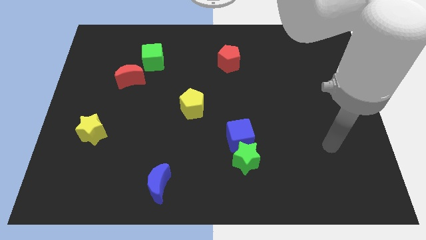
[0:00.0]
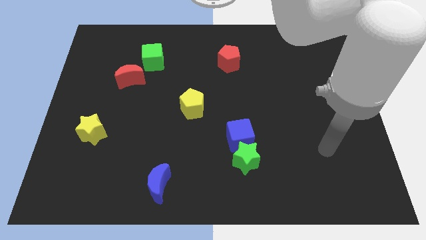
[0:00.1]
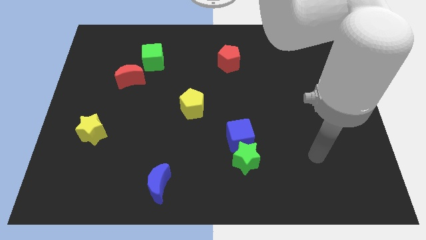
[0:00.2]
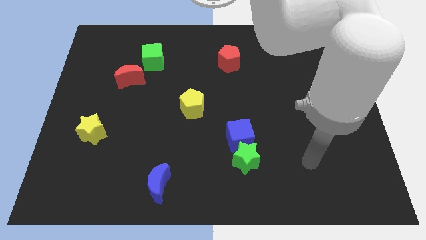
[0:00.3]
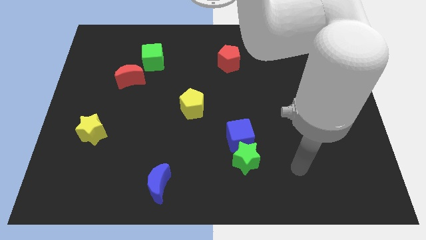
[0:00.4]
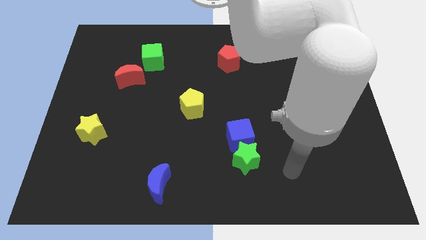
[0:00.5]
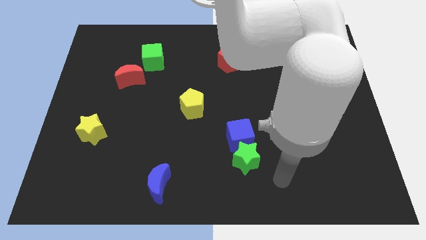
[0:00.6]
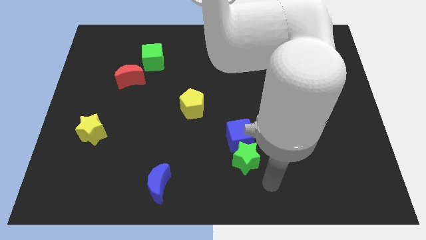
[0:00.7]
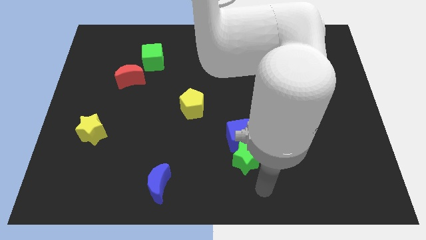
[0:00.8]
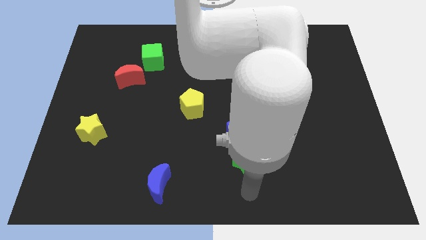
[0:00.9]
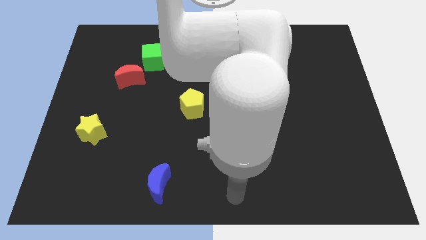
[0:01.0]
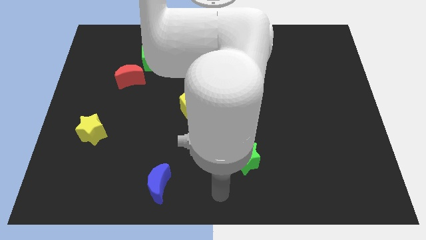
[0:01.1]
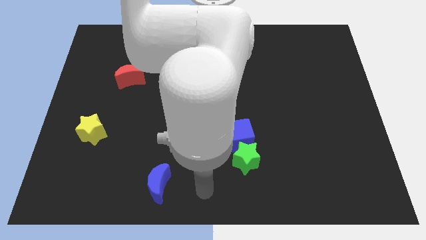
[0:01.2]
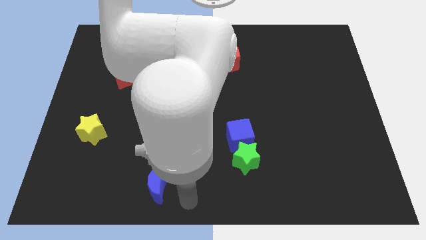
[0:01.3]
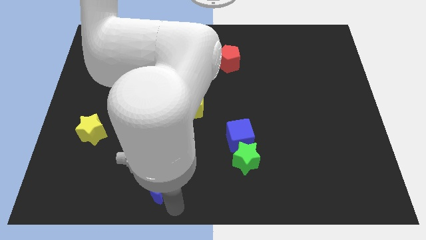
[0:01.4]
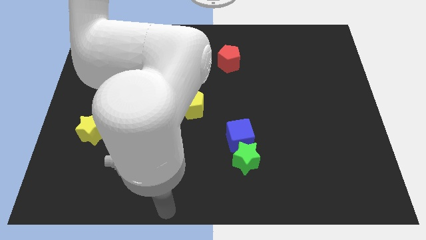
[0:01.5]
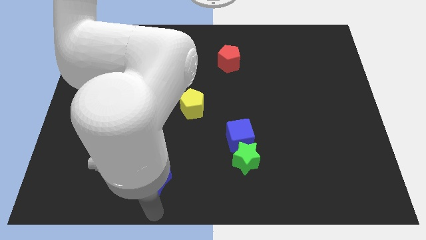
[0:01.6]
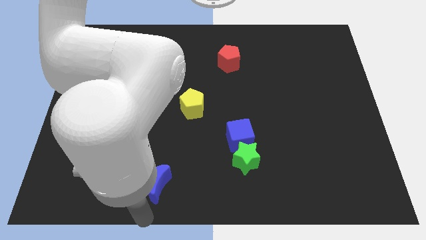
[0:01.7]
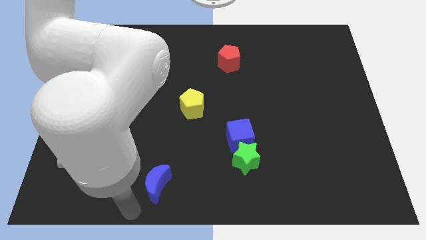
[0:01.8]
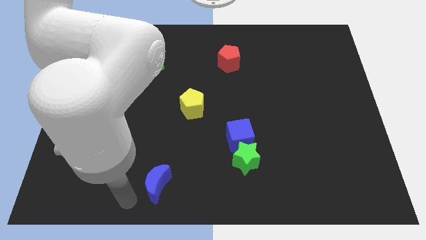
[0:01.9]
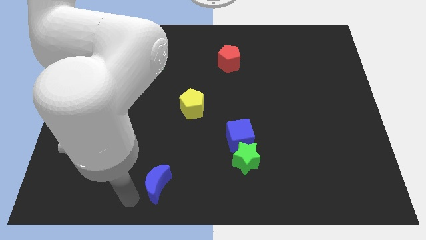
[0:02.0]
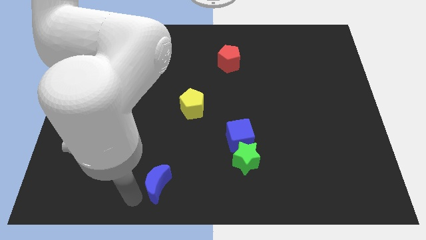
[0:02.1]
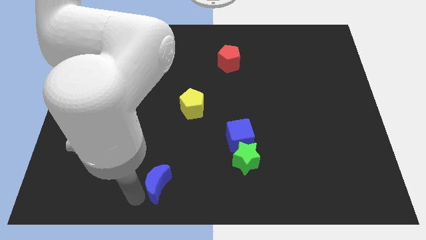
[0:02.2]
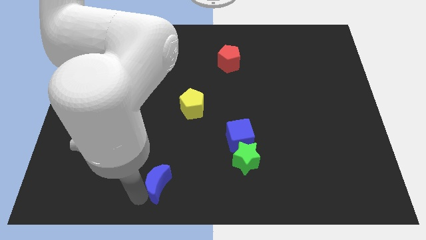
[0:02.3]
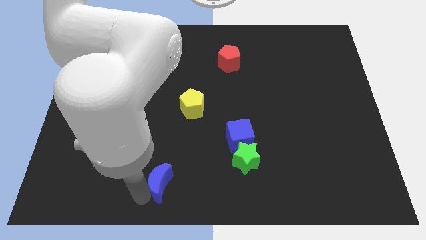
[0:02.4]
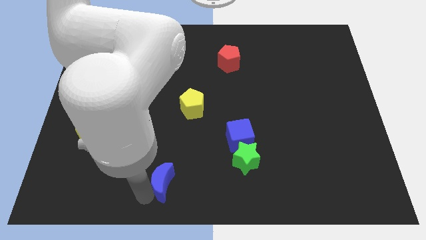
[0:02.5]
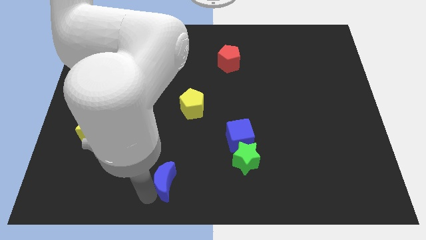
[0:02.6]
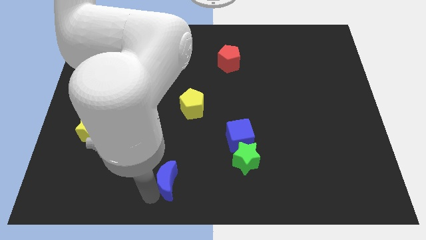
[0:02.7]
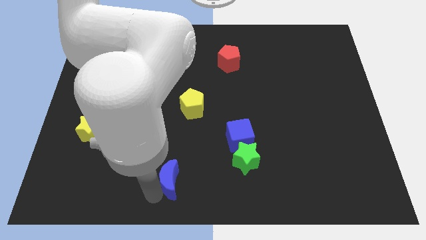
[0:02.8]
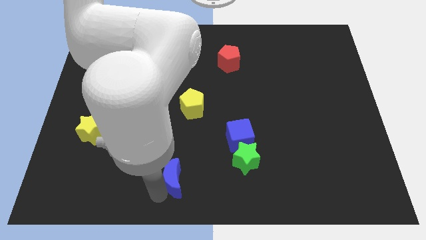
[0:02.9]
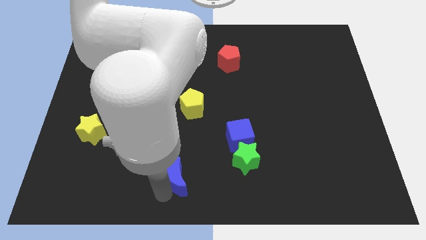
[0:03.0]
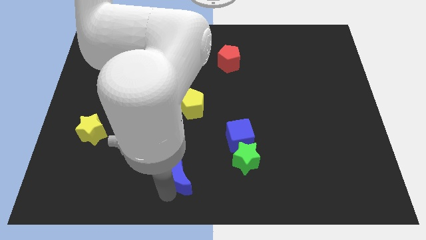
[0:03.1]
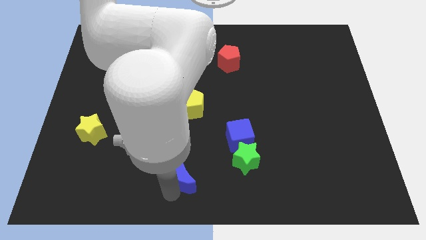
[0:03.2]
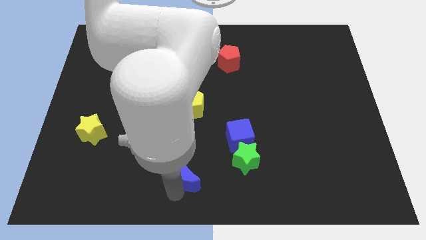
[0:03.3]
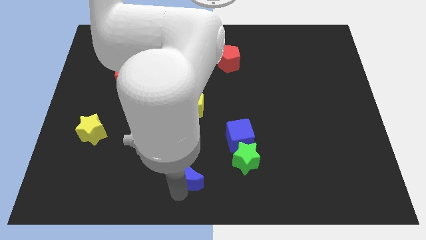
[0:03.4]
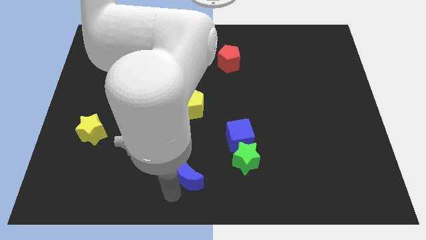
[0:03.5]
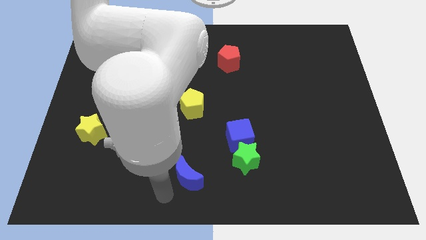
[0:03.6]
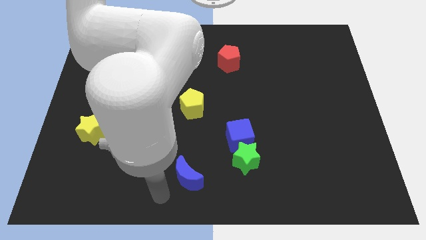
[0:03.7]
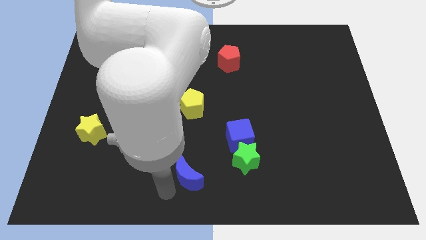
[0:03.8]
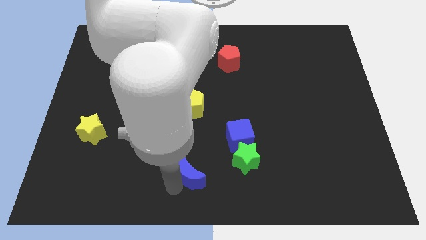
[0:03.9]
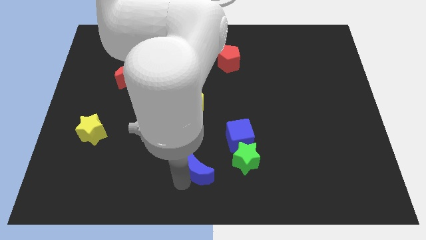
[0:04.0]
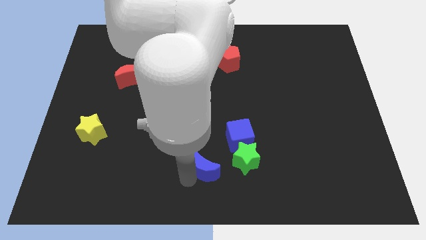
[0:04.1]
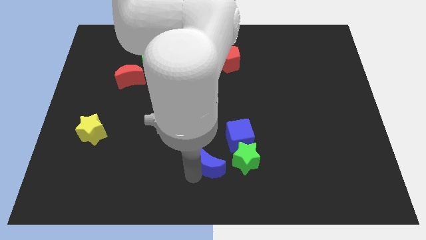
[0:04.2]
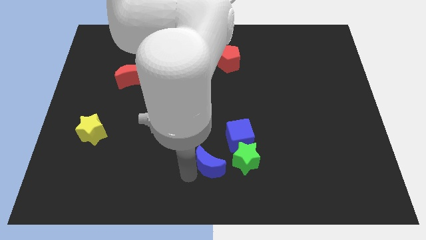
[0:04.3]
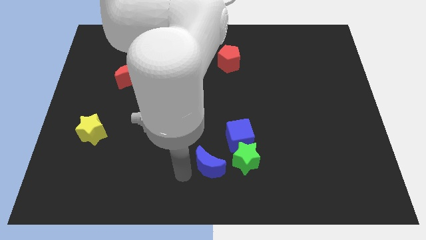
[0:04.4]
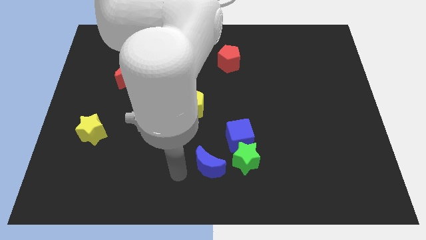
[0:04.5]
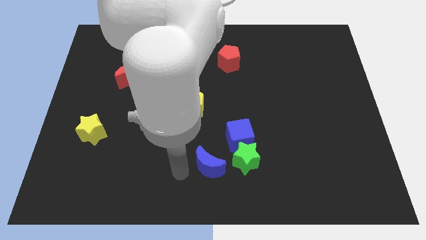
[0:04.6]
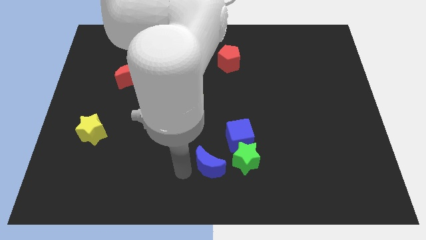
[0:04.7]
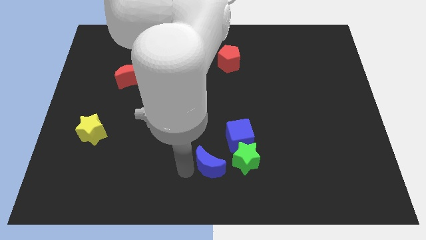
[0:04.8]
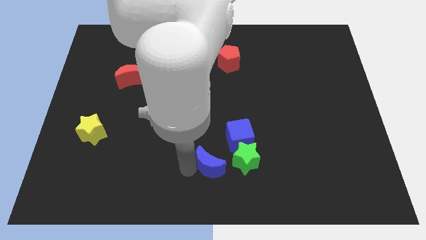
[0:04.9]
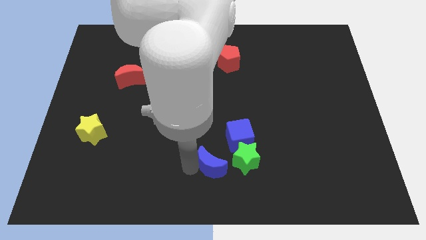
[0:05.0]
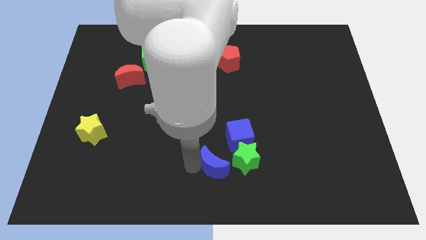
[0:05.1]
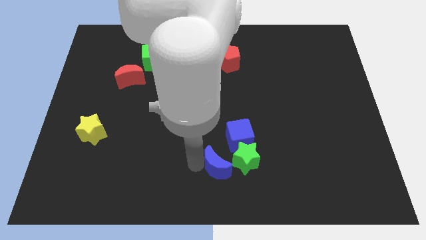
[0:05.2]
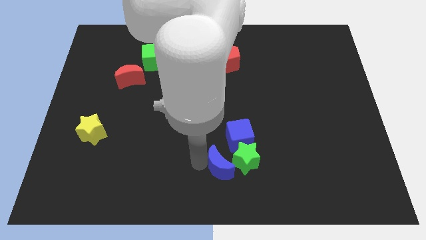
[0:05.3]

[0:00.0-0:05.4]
push the blue moon towards the green star

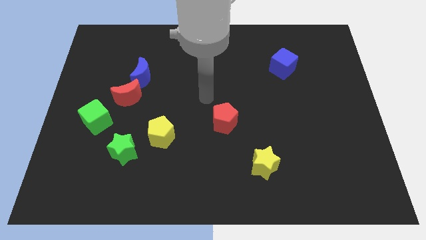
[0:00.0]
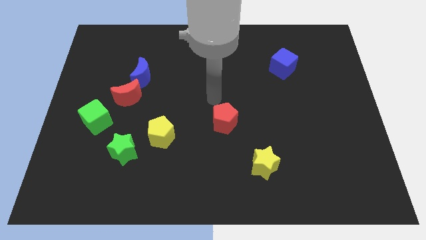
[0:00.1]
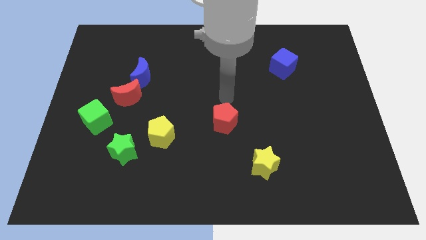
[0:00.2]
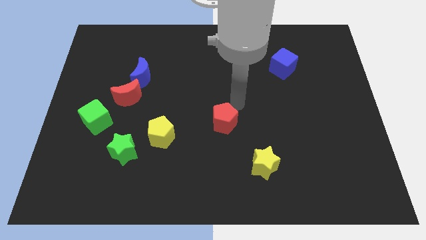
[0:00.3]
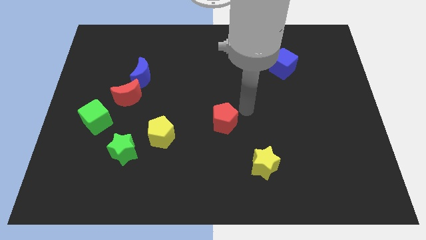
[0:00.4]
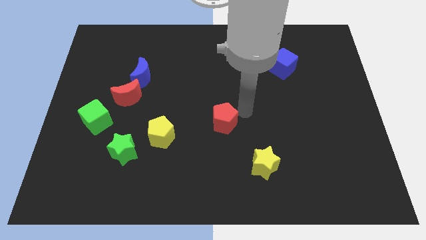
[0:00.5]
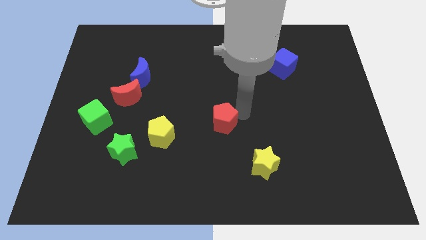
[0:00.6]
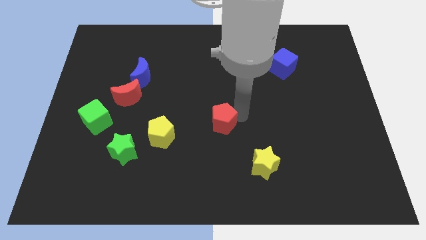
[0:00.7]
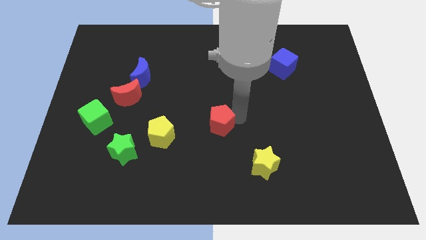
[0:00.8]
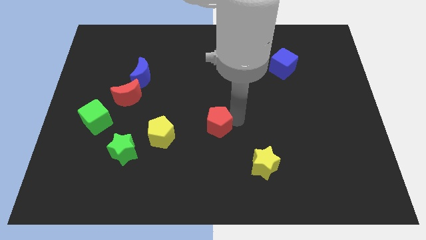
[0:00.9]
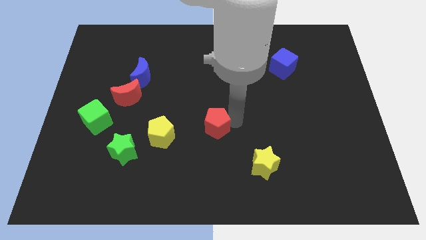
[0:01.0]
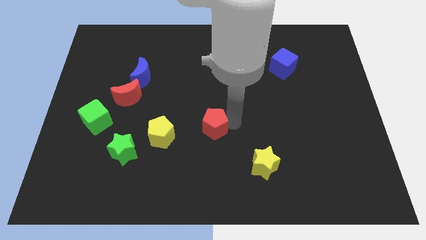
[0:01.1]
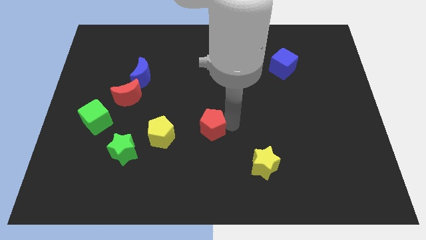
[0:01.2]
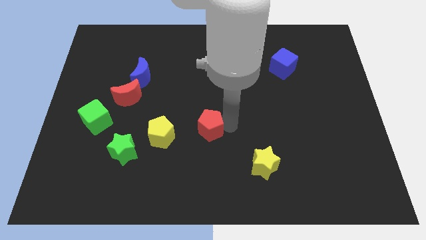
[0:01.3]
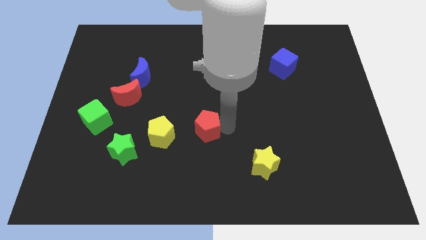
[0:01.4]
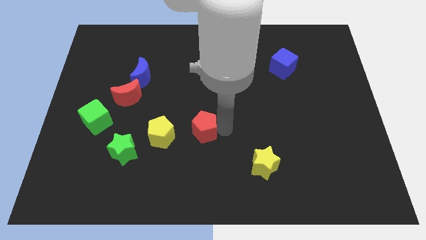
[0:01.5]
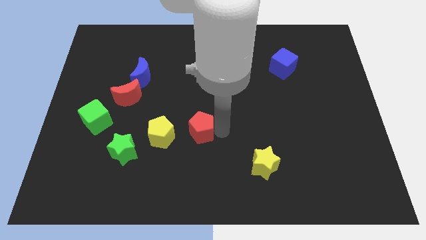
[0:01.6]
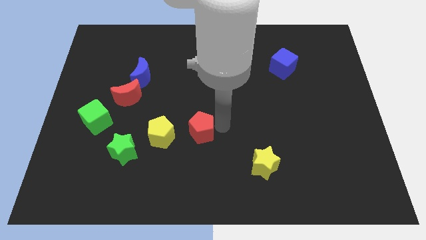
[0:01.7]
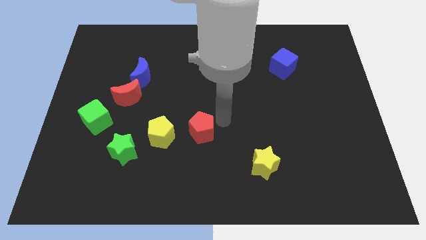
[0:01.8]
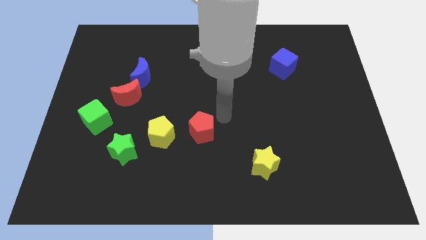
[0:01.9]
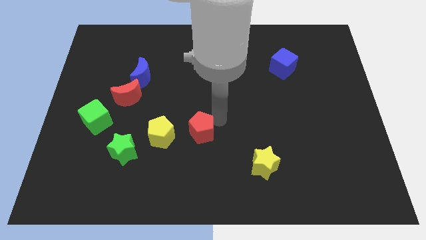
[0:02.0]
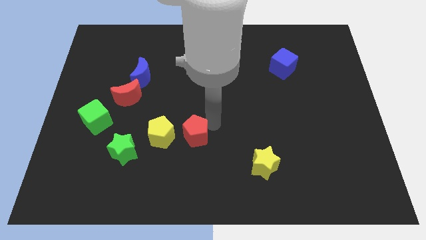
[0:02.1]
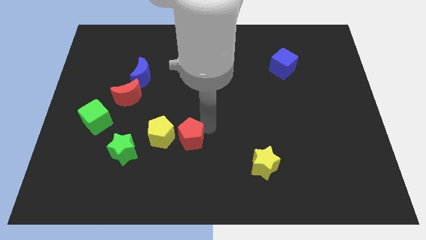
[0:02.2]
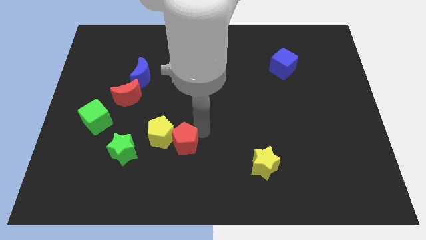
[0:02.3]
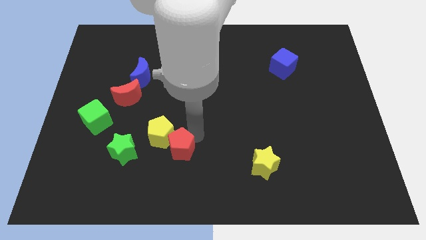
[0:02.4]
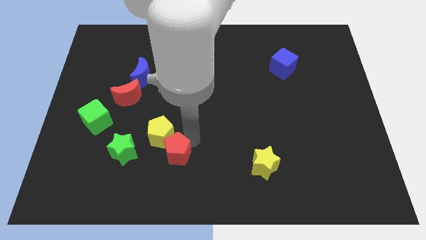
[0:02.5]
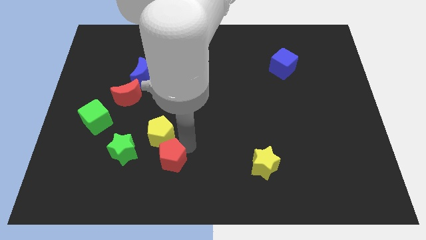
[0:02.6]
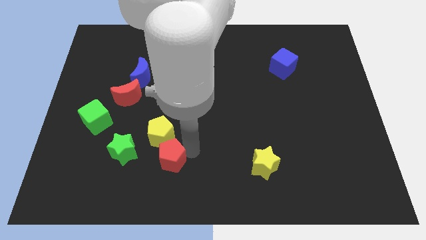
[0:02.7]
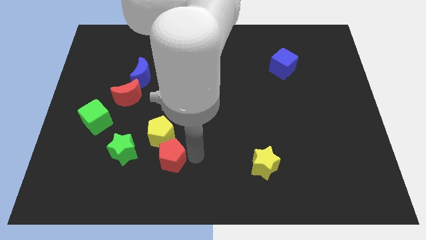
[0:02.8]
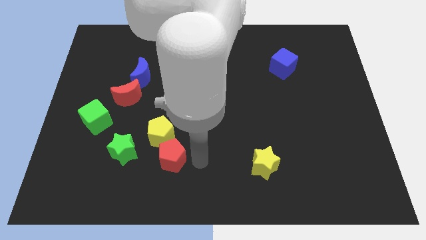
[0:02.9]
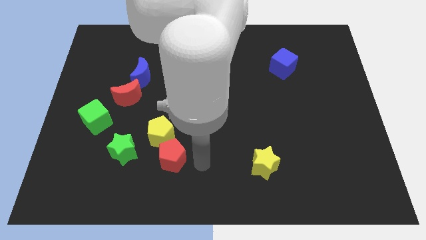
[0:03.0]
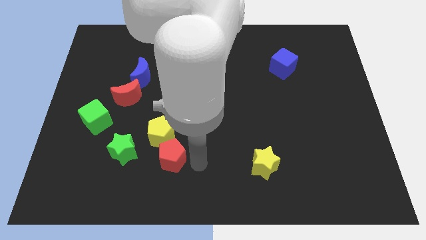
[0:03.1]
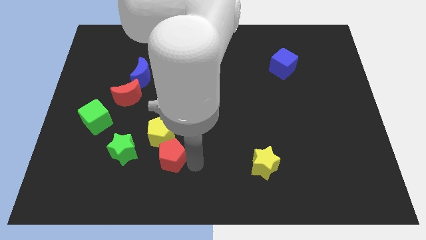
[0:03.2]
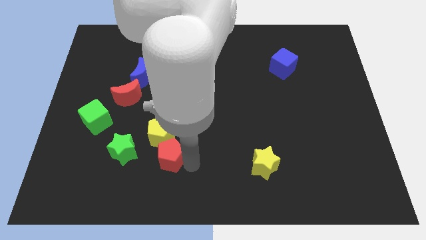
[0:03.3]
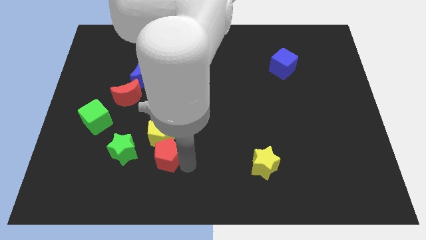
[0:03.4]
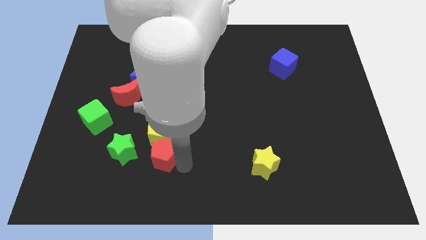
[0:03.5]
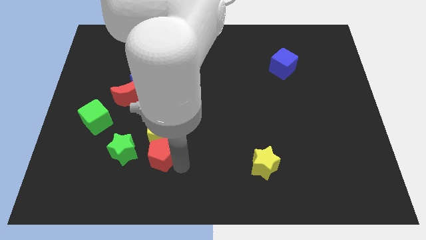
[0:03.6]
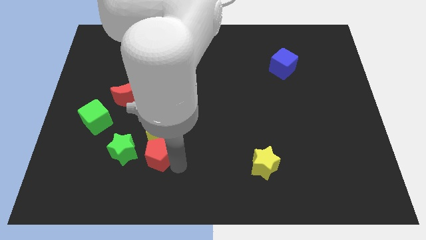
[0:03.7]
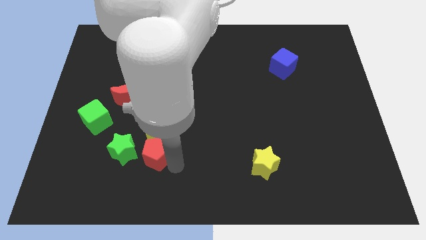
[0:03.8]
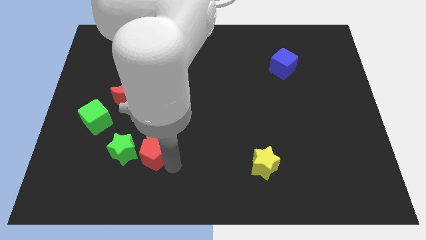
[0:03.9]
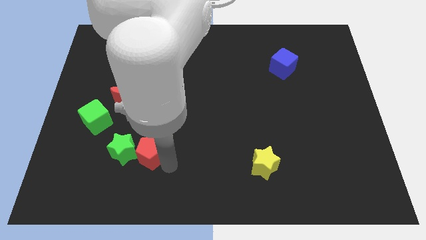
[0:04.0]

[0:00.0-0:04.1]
move the red pentagon close to the green star
